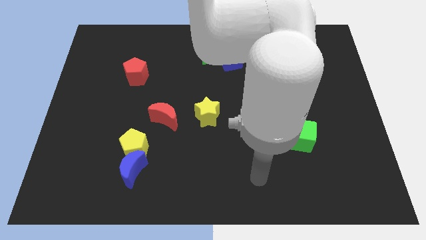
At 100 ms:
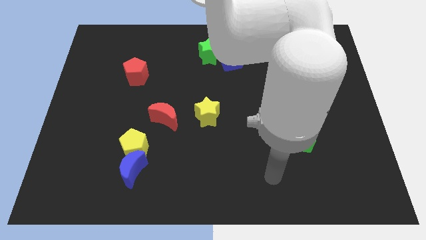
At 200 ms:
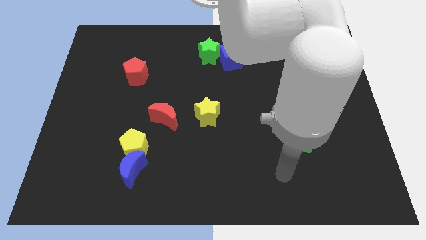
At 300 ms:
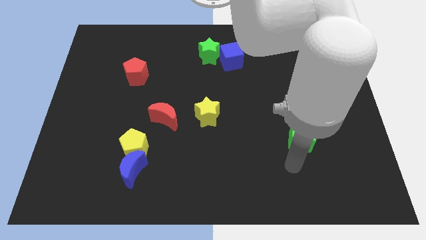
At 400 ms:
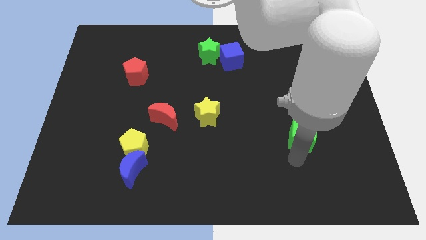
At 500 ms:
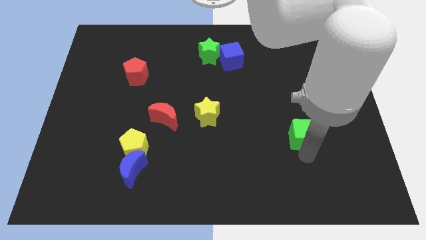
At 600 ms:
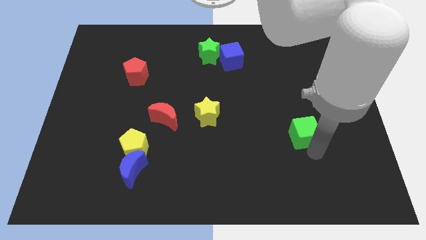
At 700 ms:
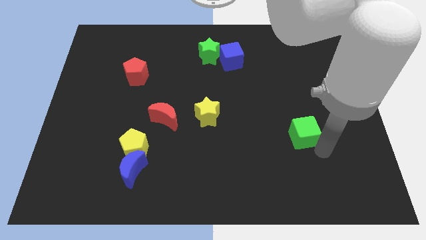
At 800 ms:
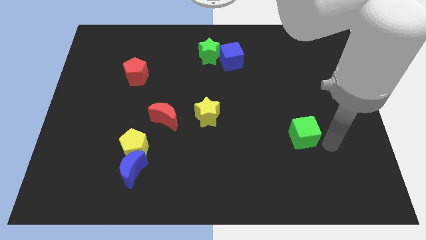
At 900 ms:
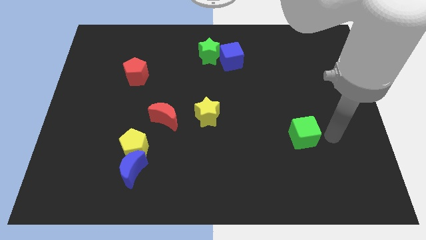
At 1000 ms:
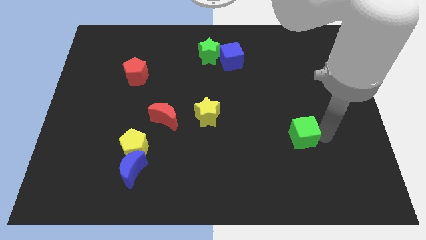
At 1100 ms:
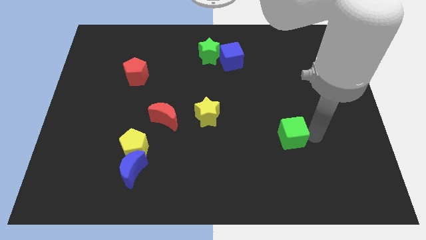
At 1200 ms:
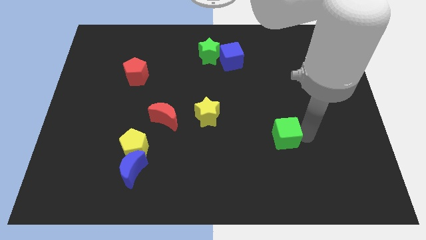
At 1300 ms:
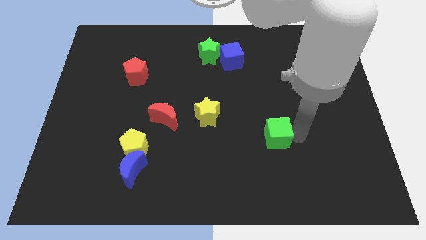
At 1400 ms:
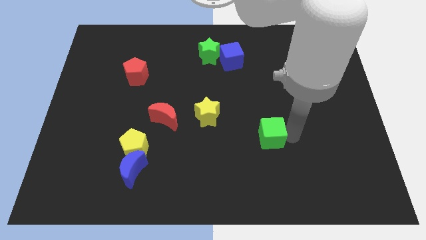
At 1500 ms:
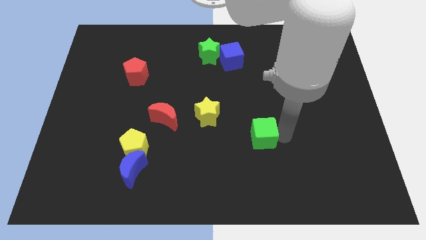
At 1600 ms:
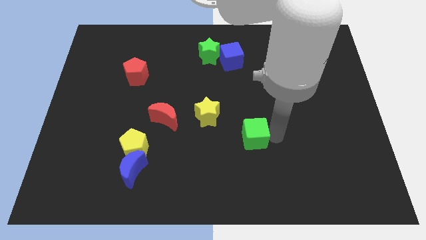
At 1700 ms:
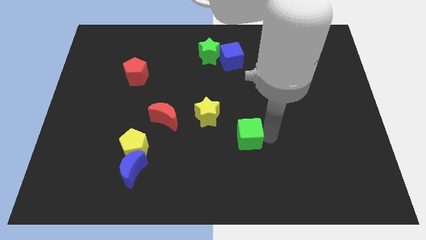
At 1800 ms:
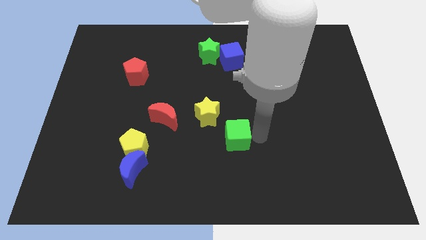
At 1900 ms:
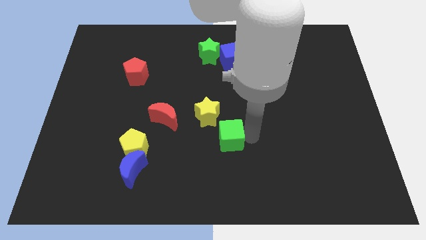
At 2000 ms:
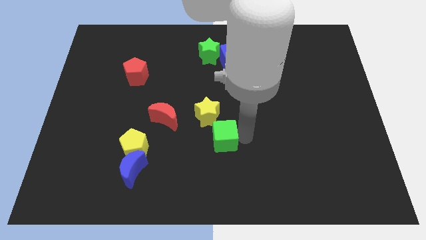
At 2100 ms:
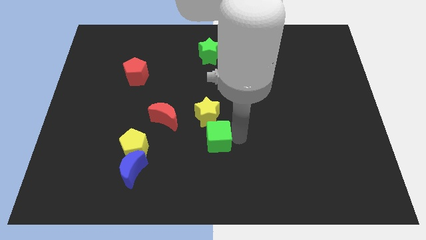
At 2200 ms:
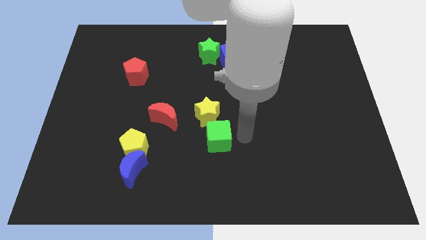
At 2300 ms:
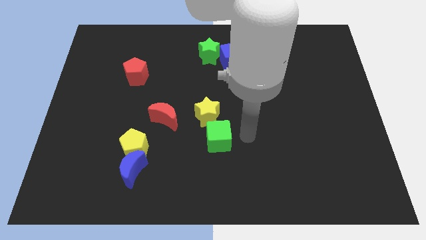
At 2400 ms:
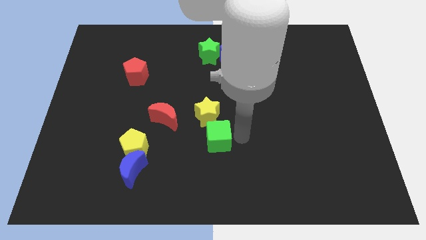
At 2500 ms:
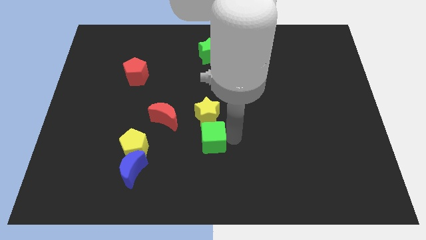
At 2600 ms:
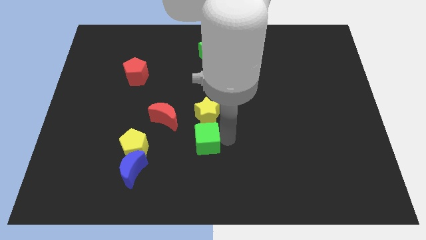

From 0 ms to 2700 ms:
slide the green cube left

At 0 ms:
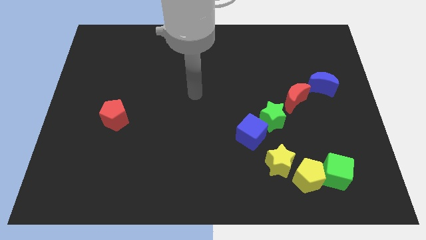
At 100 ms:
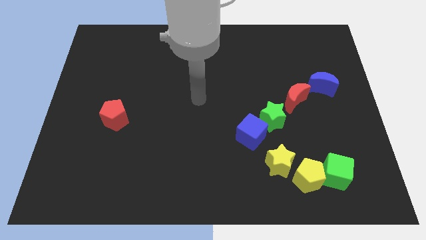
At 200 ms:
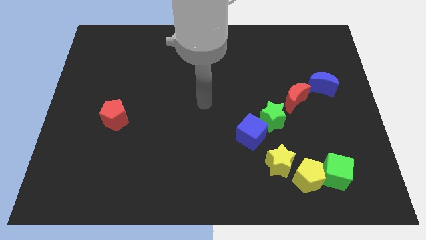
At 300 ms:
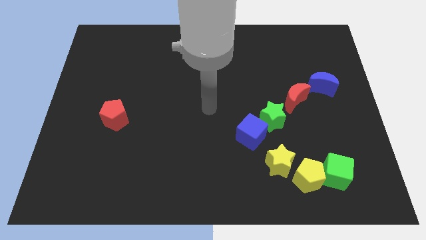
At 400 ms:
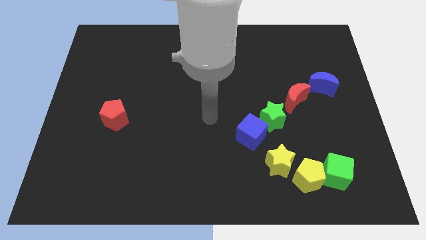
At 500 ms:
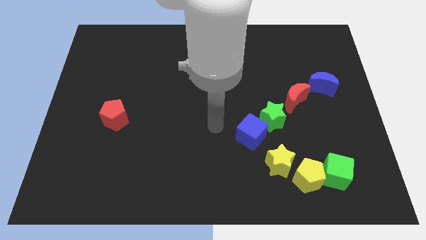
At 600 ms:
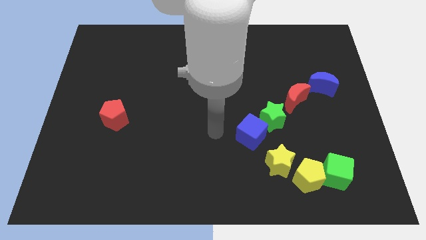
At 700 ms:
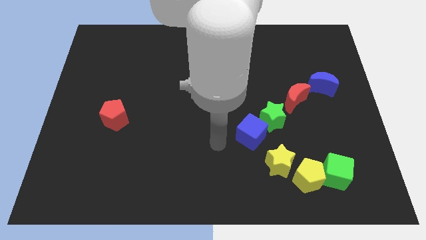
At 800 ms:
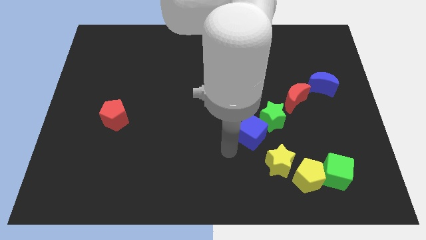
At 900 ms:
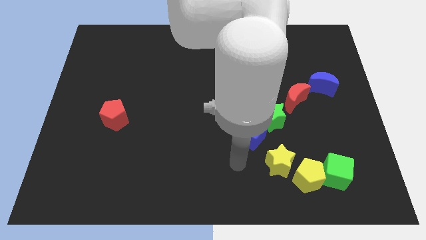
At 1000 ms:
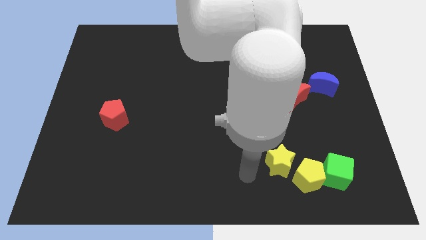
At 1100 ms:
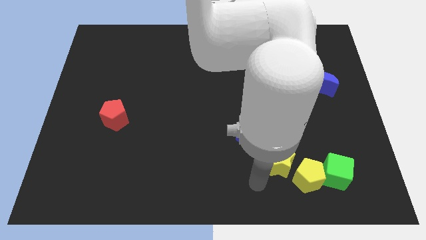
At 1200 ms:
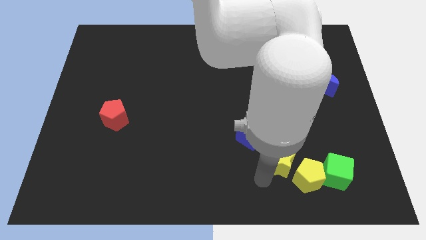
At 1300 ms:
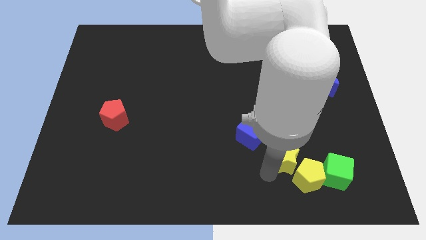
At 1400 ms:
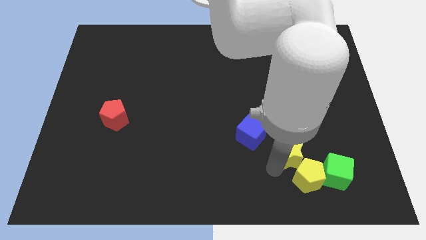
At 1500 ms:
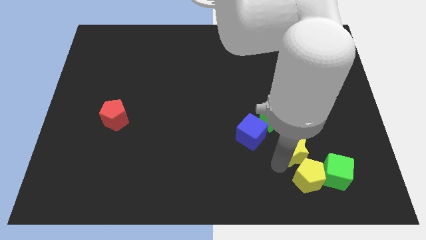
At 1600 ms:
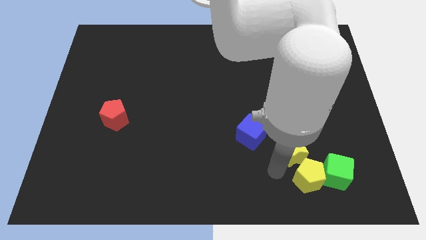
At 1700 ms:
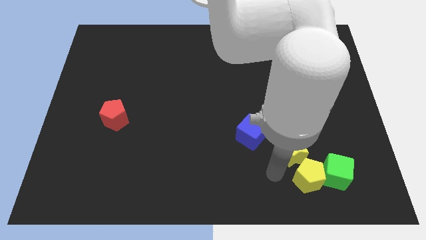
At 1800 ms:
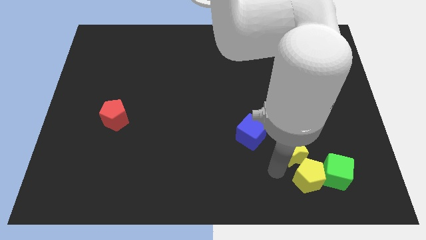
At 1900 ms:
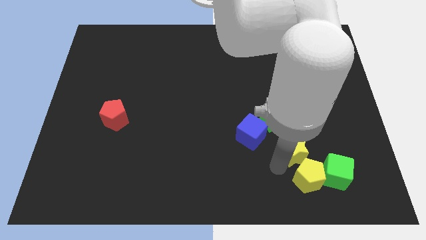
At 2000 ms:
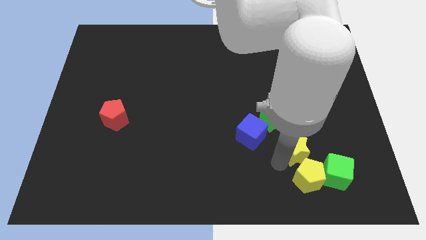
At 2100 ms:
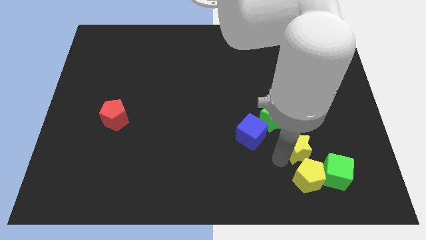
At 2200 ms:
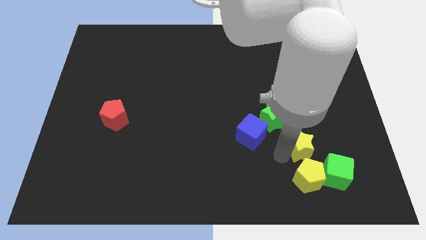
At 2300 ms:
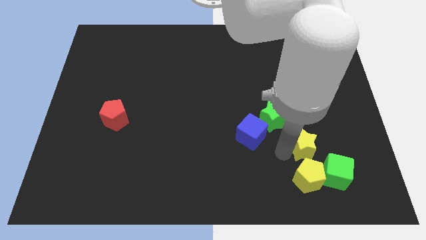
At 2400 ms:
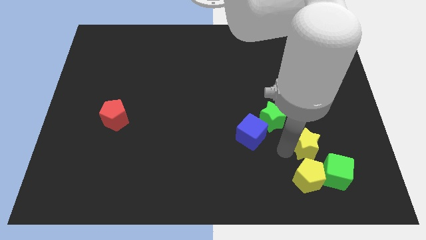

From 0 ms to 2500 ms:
slightly push the yellow star upwards and to the right

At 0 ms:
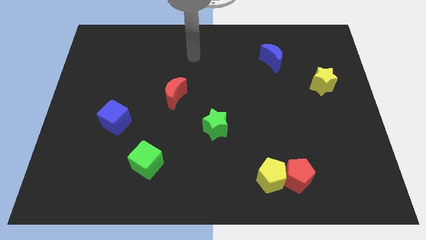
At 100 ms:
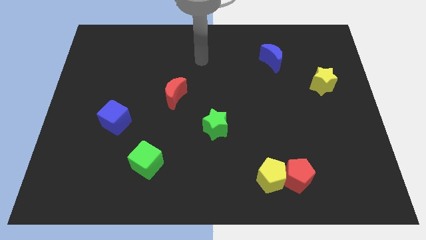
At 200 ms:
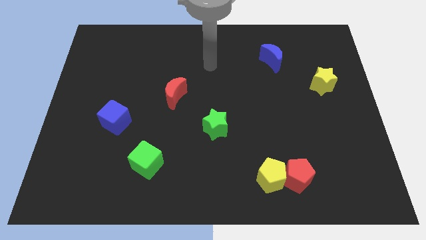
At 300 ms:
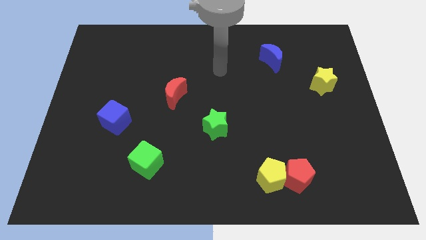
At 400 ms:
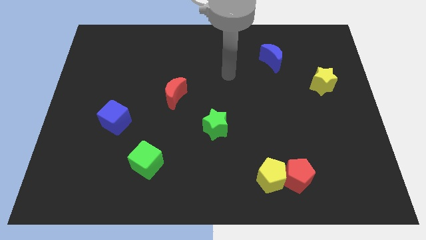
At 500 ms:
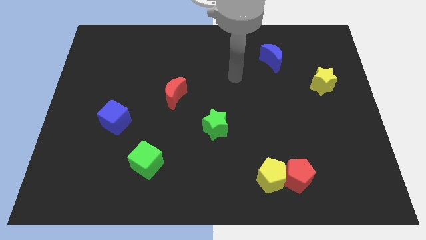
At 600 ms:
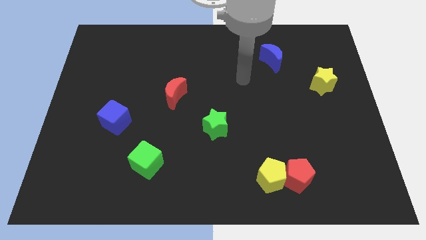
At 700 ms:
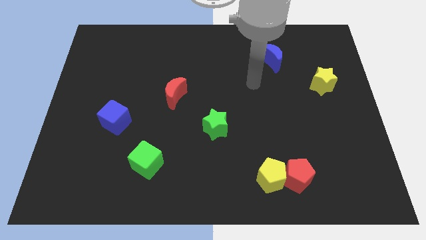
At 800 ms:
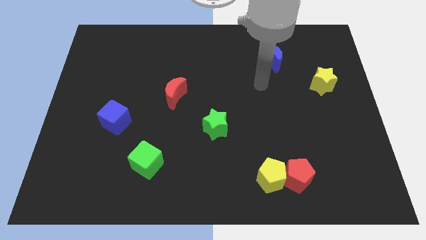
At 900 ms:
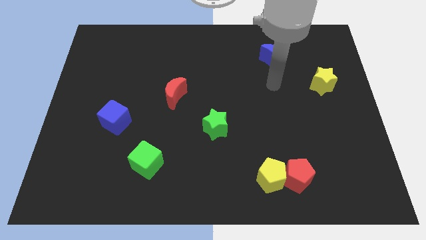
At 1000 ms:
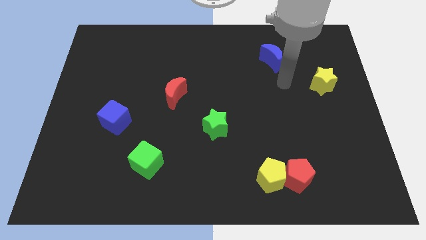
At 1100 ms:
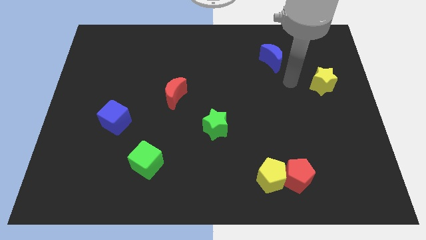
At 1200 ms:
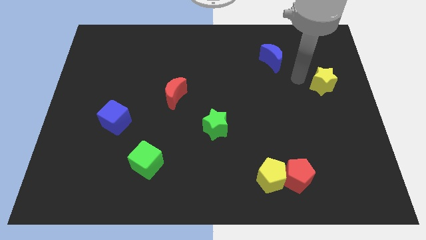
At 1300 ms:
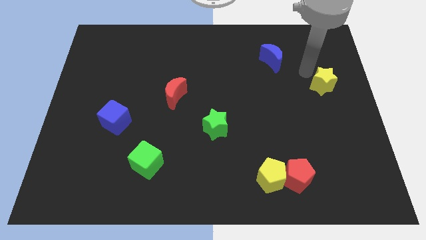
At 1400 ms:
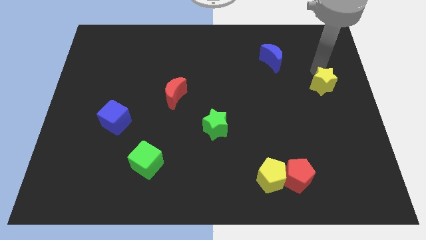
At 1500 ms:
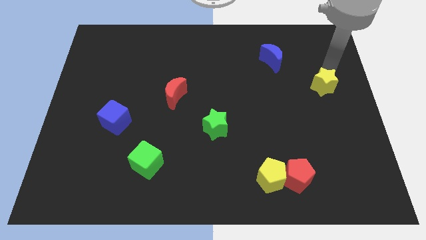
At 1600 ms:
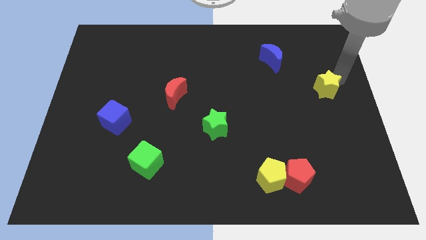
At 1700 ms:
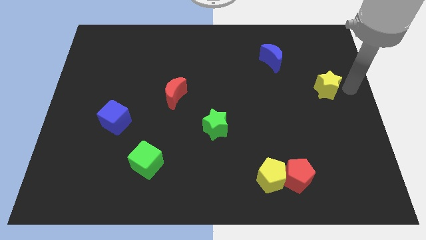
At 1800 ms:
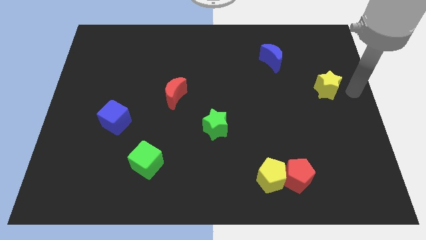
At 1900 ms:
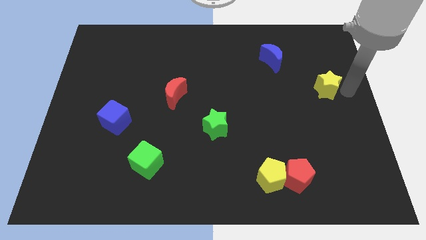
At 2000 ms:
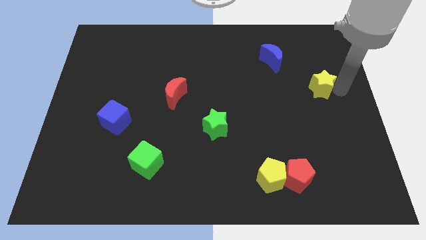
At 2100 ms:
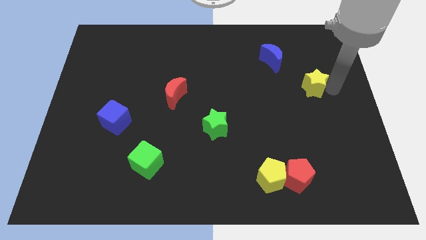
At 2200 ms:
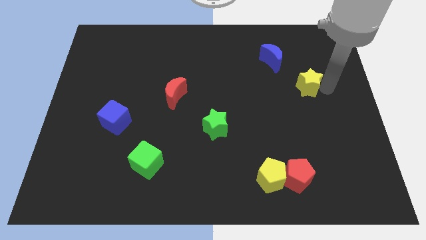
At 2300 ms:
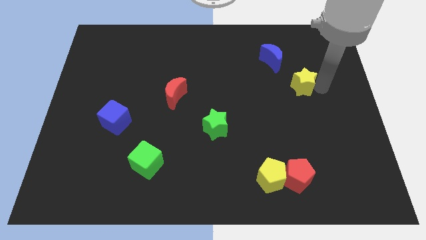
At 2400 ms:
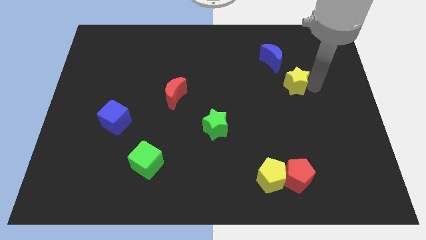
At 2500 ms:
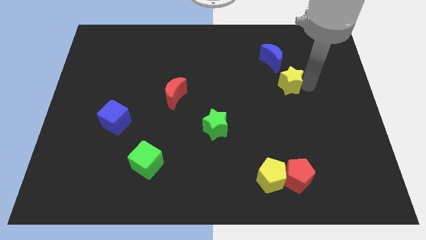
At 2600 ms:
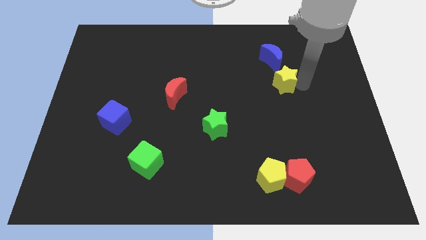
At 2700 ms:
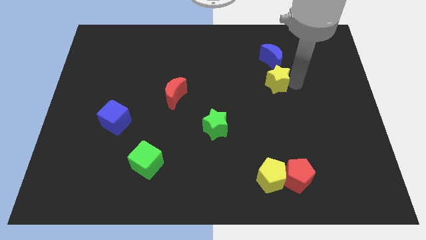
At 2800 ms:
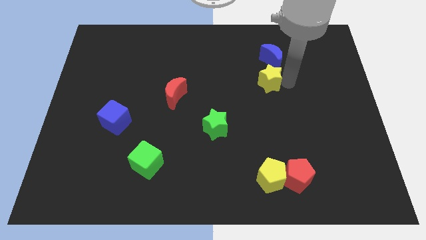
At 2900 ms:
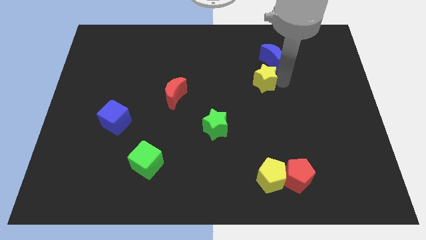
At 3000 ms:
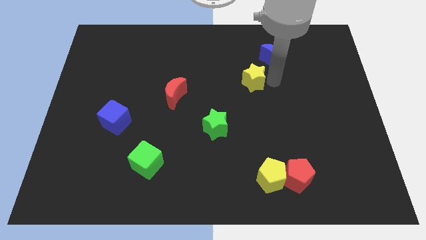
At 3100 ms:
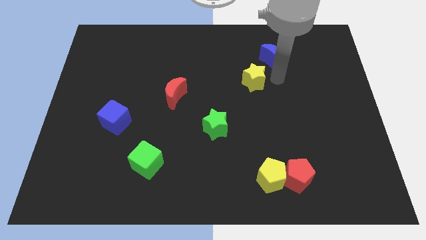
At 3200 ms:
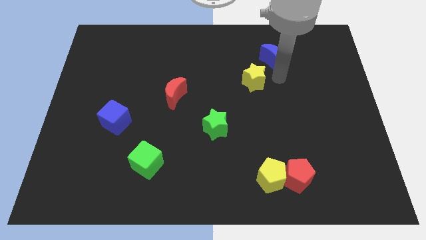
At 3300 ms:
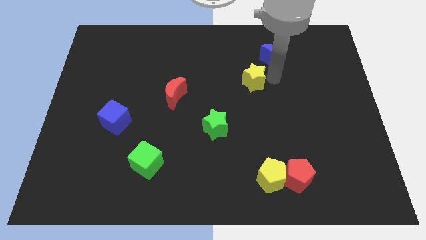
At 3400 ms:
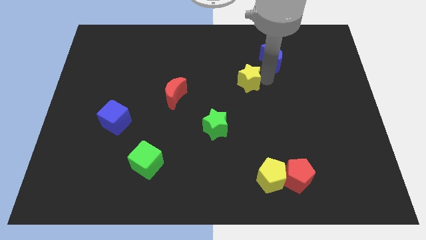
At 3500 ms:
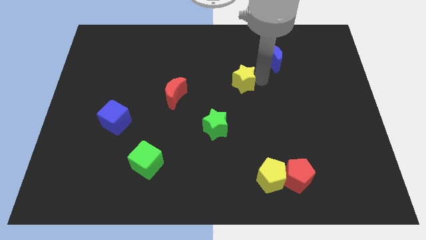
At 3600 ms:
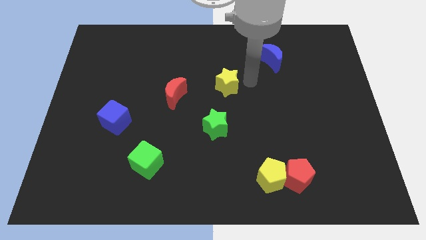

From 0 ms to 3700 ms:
slide the yellow star to the left
